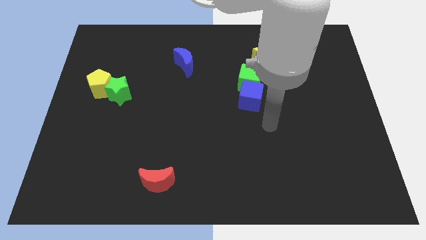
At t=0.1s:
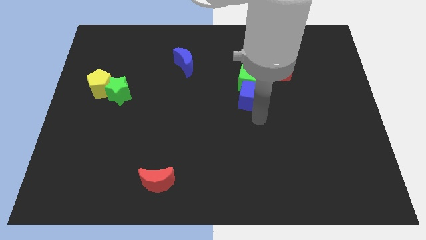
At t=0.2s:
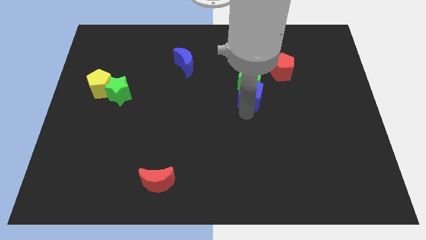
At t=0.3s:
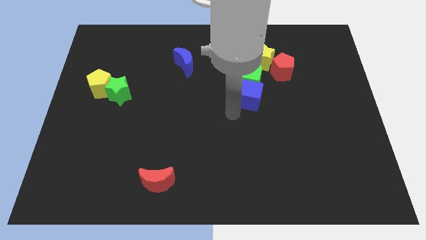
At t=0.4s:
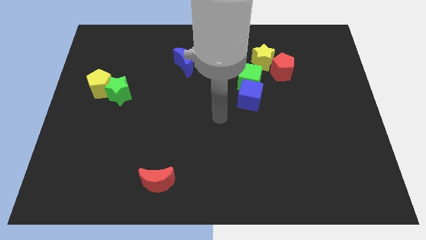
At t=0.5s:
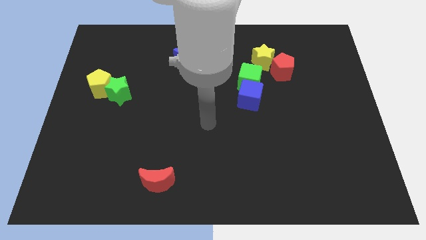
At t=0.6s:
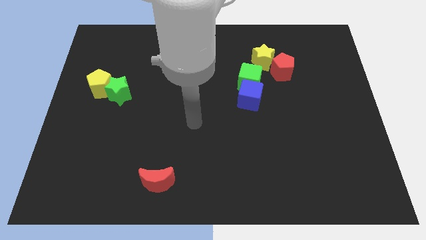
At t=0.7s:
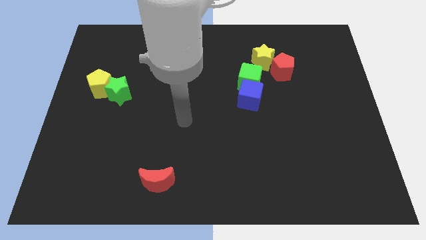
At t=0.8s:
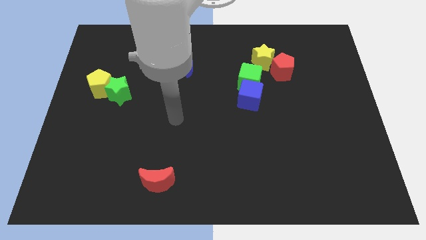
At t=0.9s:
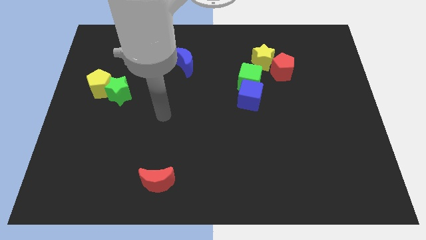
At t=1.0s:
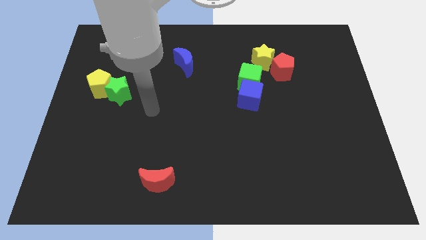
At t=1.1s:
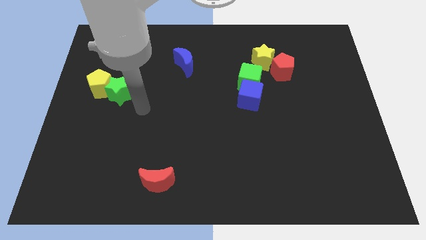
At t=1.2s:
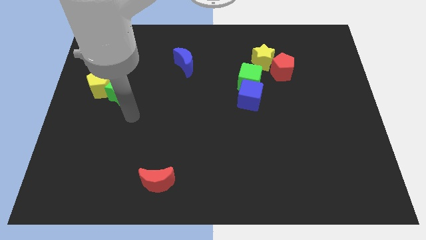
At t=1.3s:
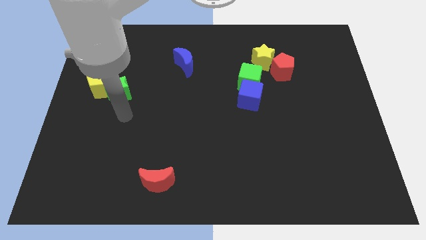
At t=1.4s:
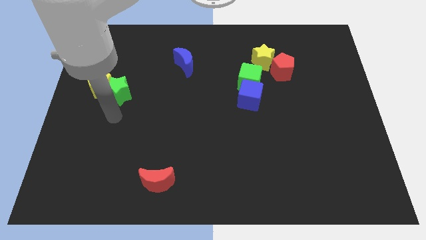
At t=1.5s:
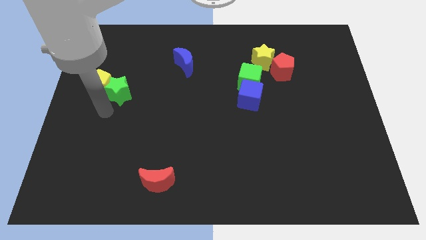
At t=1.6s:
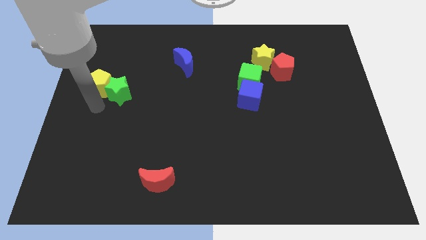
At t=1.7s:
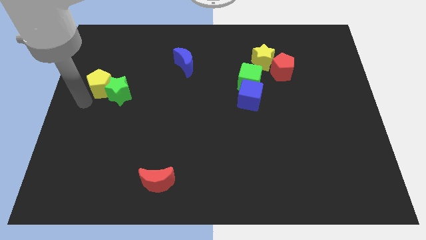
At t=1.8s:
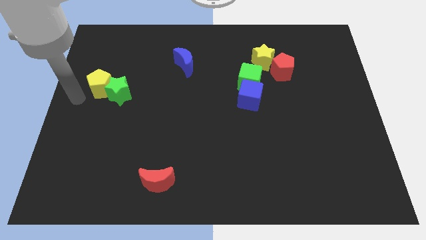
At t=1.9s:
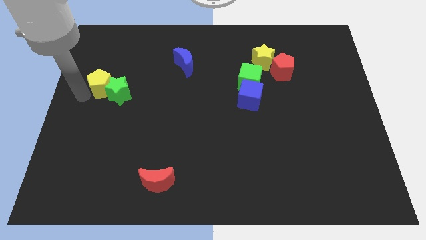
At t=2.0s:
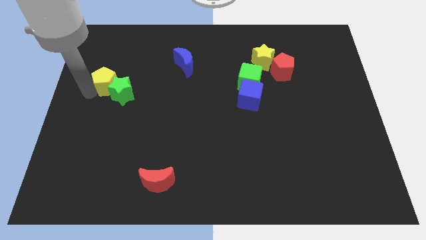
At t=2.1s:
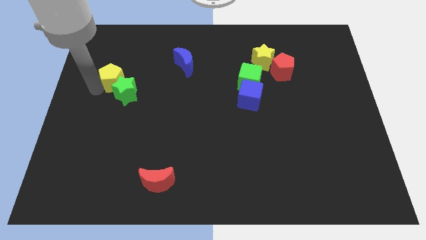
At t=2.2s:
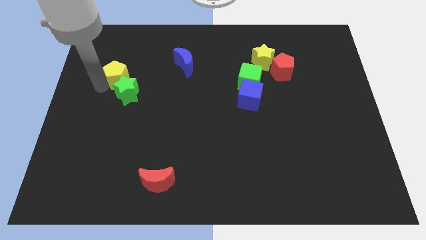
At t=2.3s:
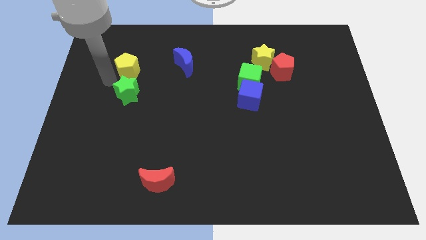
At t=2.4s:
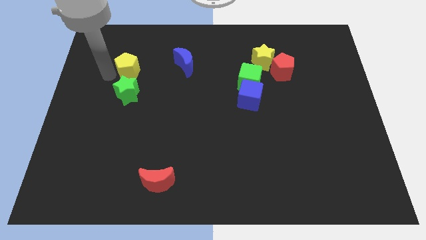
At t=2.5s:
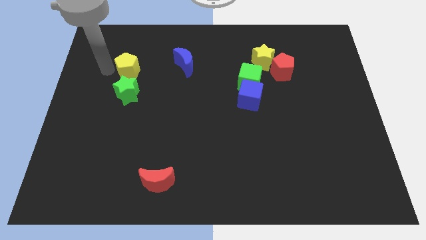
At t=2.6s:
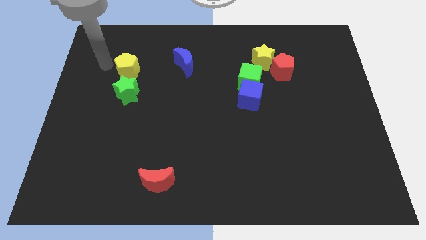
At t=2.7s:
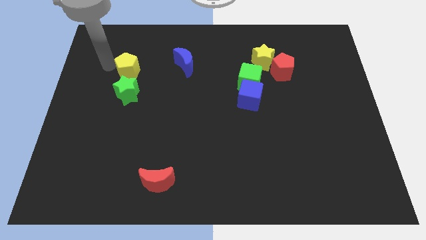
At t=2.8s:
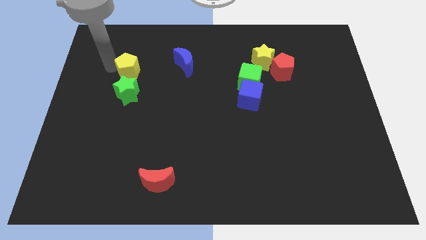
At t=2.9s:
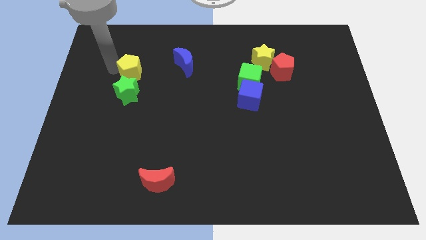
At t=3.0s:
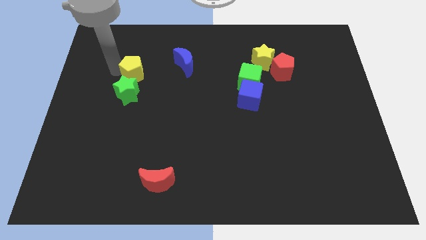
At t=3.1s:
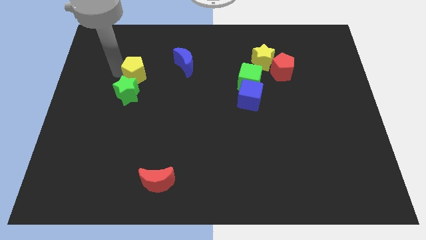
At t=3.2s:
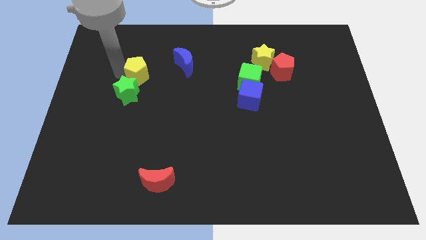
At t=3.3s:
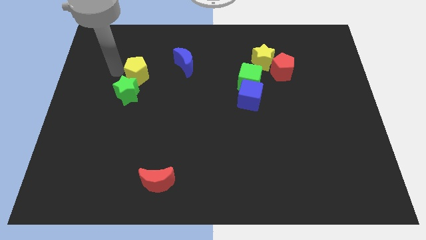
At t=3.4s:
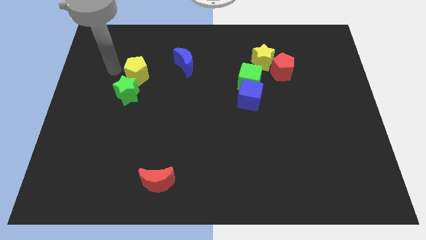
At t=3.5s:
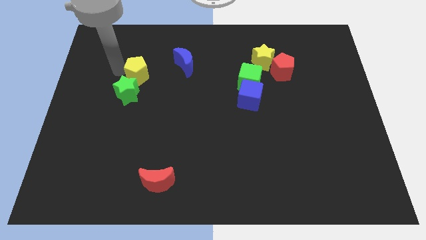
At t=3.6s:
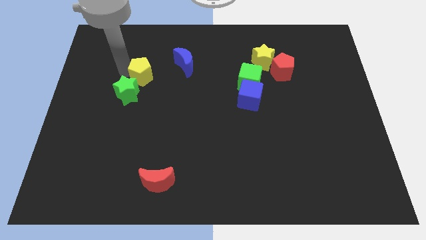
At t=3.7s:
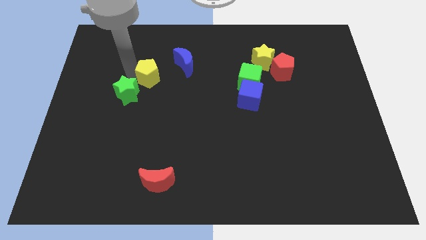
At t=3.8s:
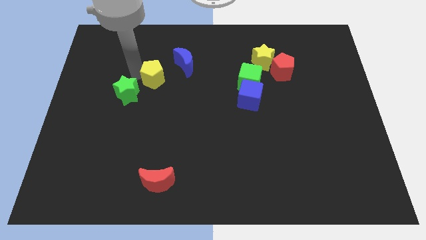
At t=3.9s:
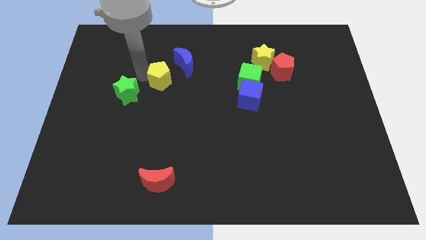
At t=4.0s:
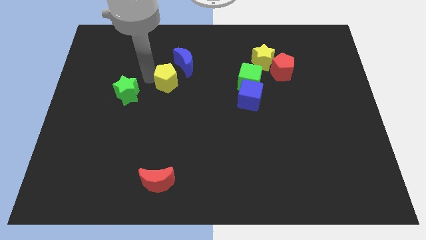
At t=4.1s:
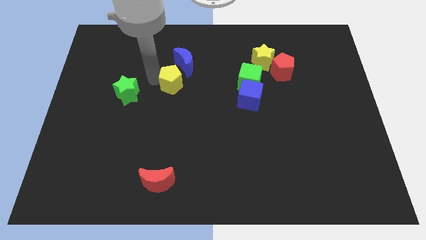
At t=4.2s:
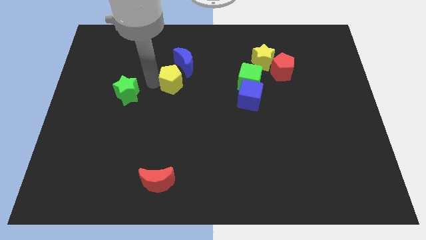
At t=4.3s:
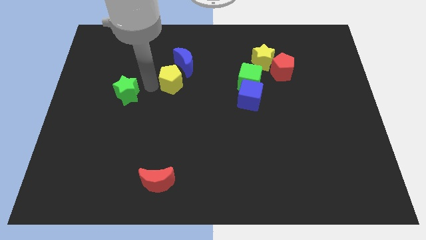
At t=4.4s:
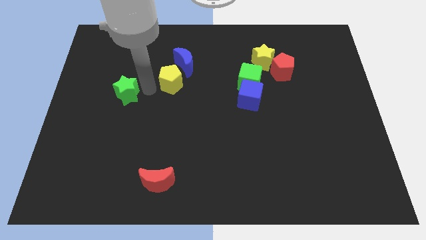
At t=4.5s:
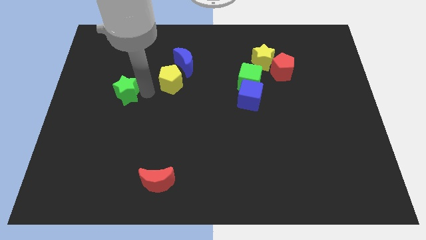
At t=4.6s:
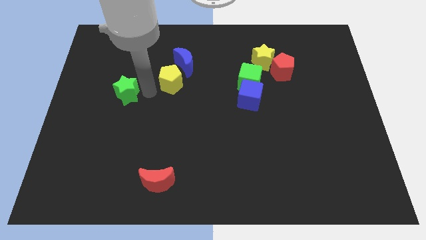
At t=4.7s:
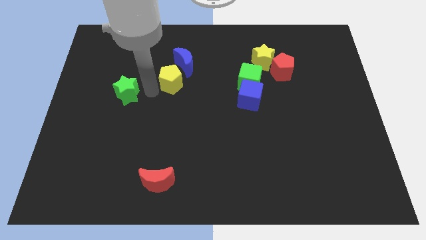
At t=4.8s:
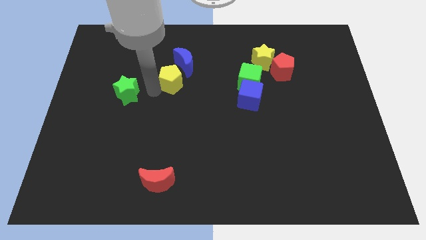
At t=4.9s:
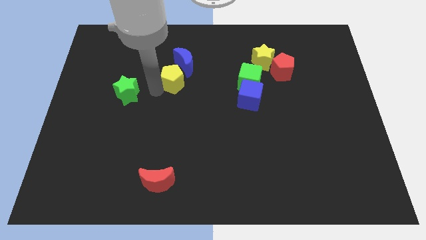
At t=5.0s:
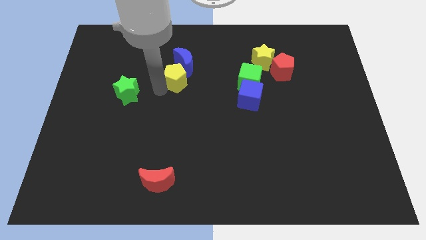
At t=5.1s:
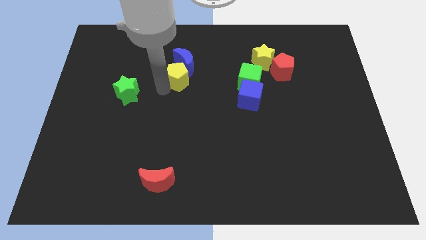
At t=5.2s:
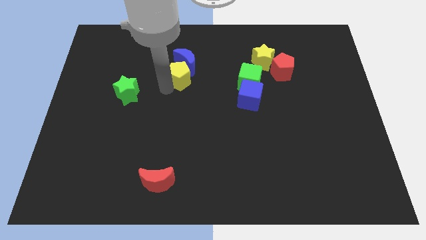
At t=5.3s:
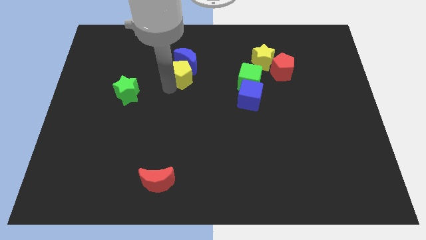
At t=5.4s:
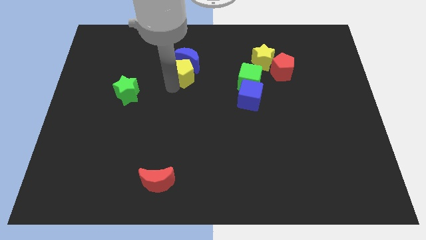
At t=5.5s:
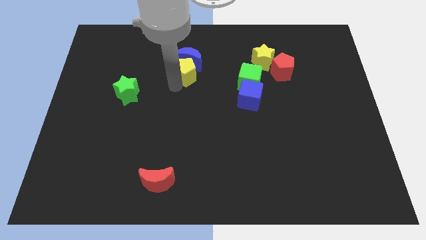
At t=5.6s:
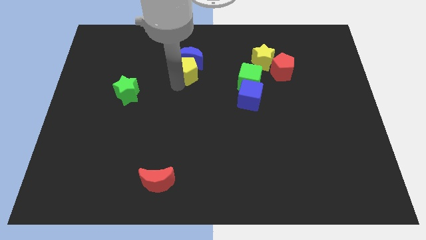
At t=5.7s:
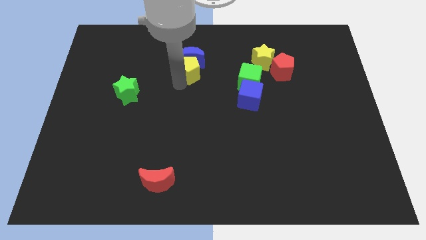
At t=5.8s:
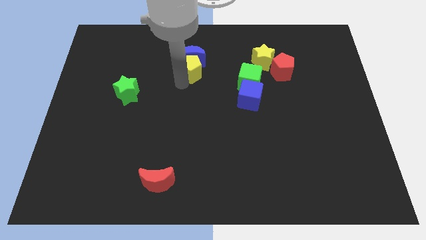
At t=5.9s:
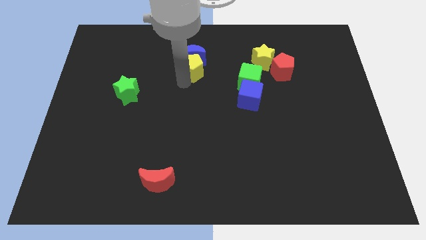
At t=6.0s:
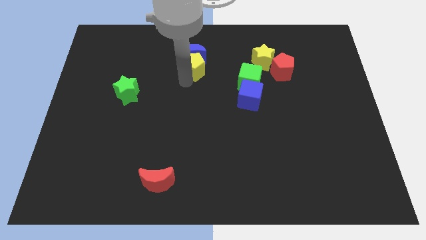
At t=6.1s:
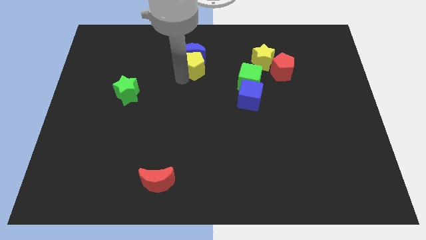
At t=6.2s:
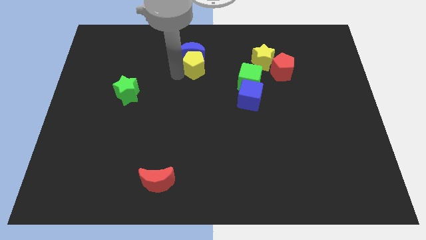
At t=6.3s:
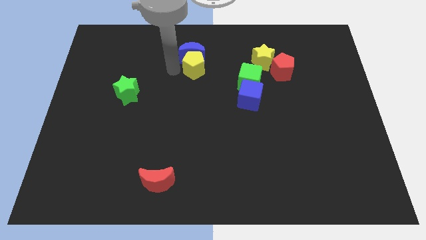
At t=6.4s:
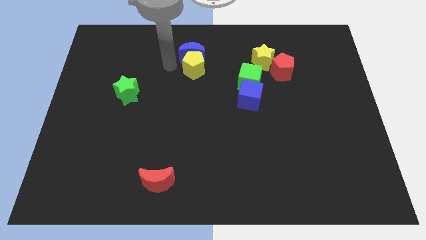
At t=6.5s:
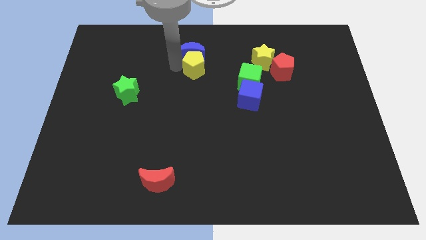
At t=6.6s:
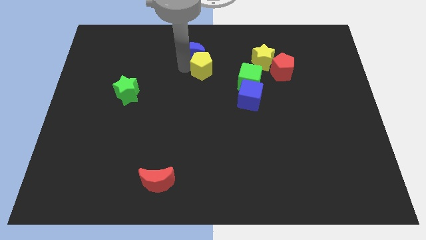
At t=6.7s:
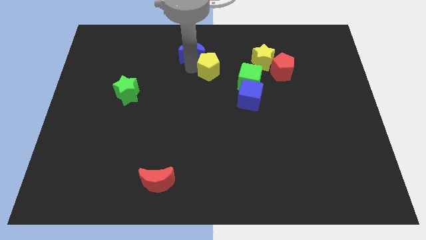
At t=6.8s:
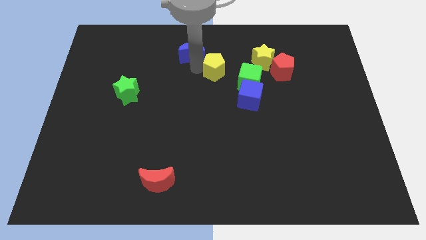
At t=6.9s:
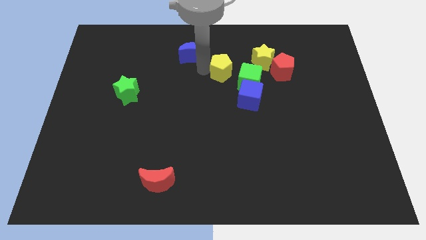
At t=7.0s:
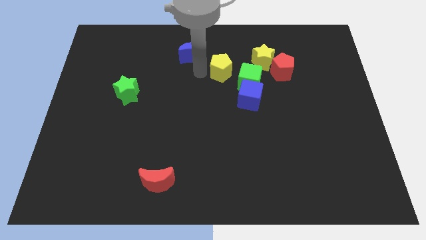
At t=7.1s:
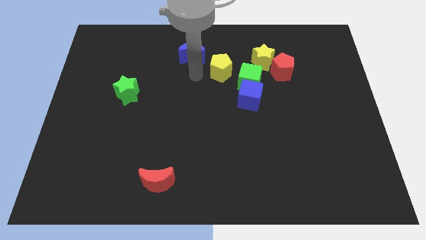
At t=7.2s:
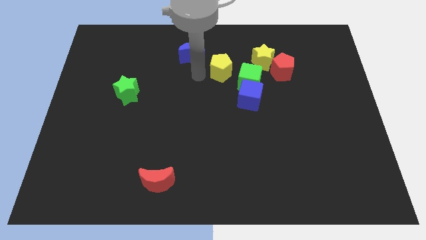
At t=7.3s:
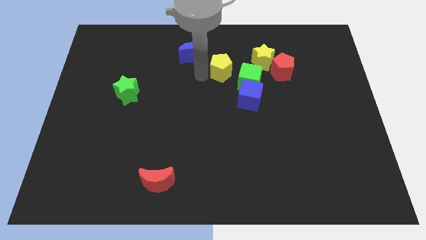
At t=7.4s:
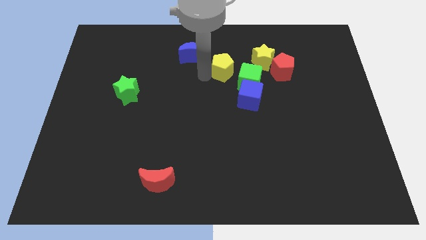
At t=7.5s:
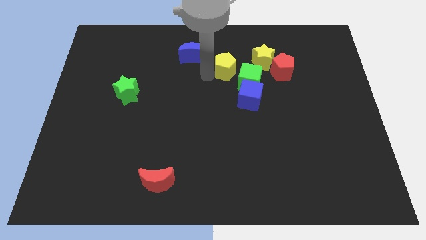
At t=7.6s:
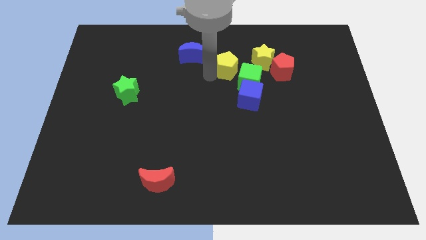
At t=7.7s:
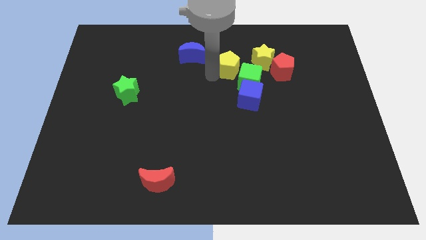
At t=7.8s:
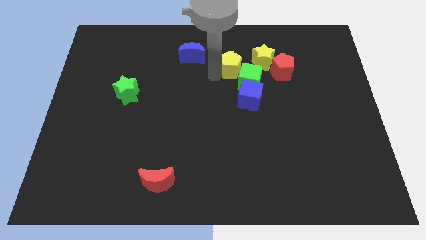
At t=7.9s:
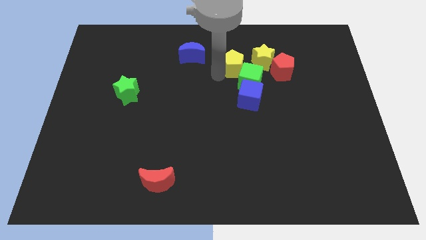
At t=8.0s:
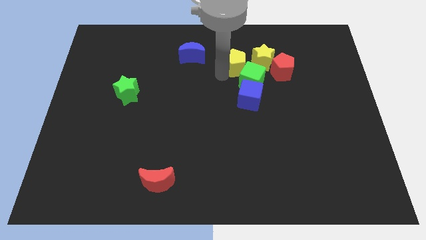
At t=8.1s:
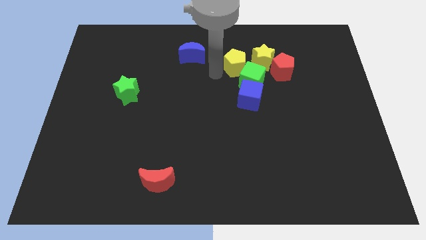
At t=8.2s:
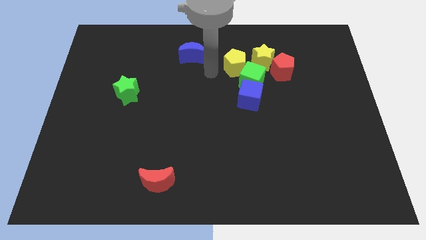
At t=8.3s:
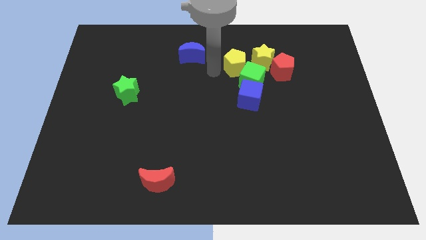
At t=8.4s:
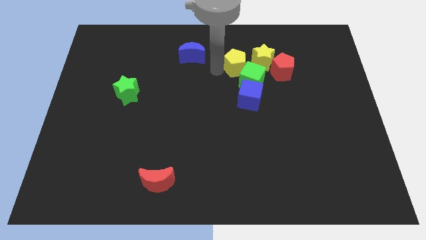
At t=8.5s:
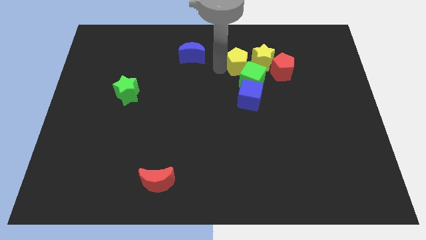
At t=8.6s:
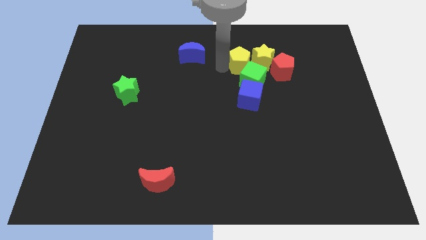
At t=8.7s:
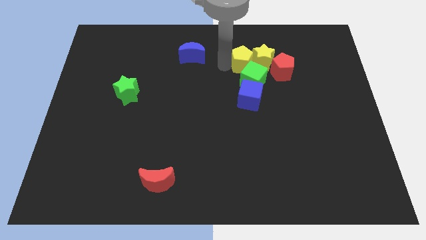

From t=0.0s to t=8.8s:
put the yellow pentagon close to the yellow star
